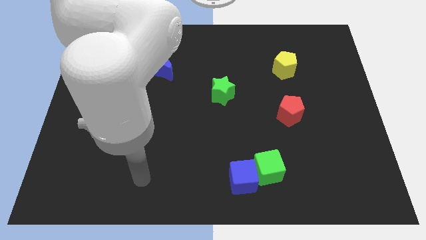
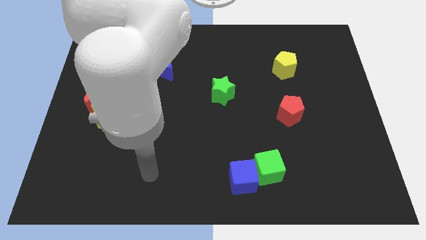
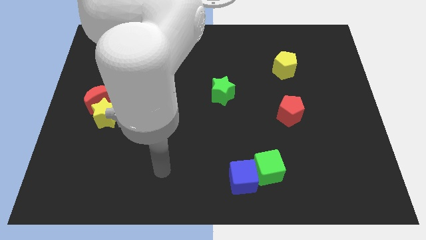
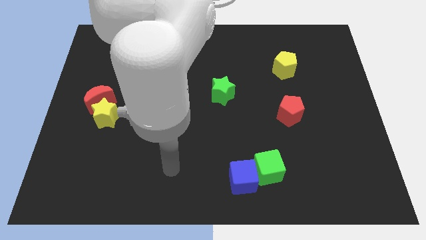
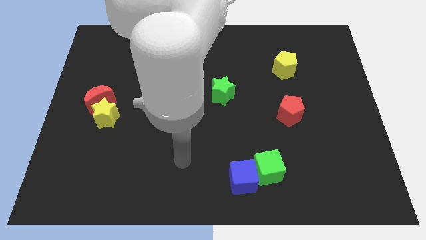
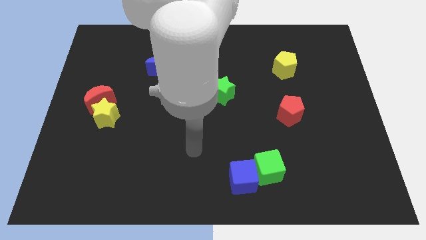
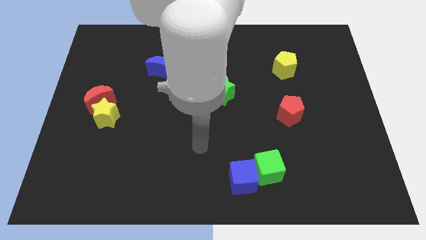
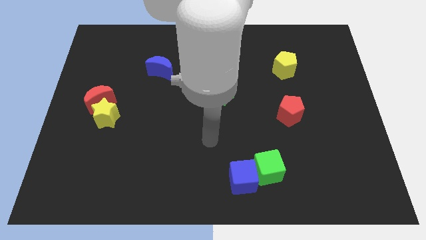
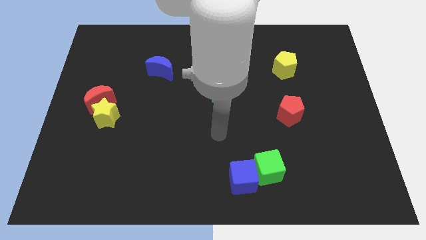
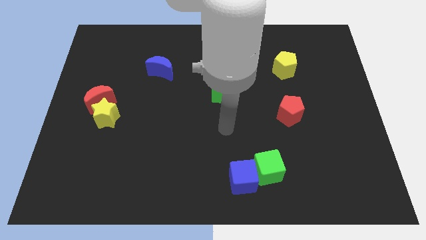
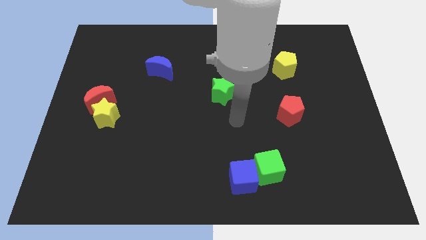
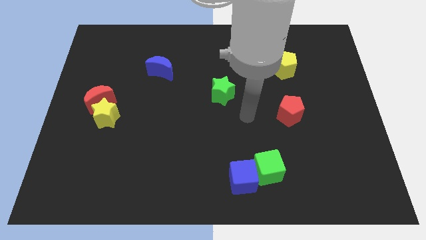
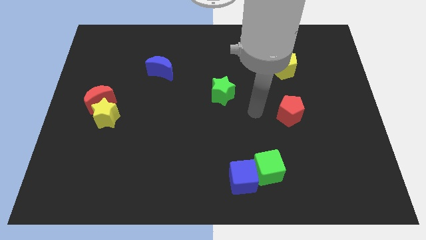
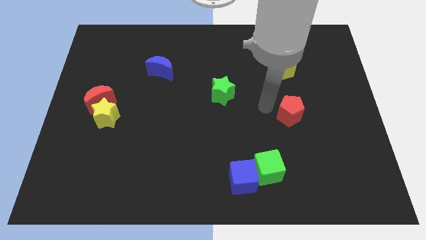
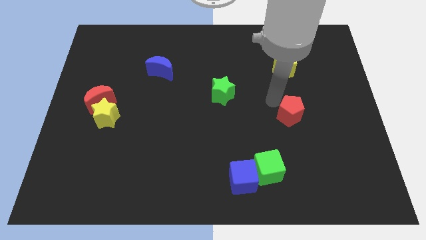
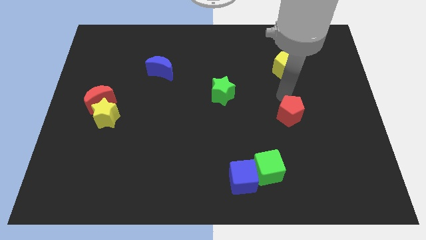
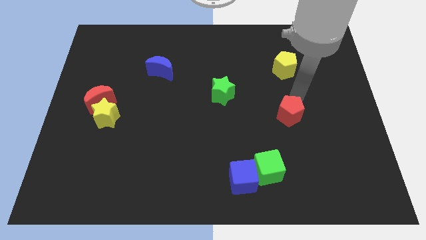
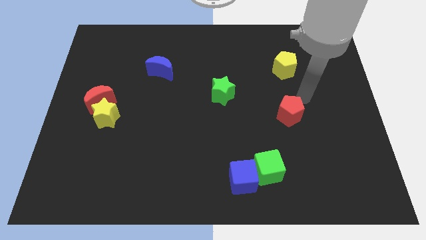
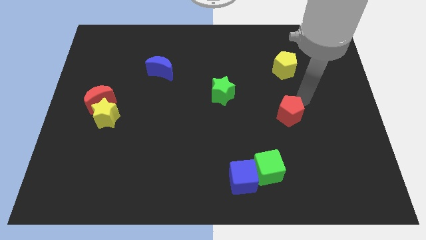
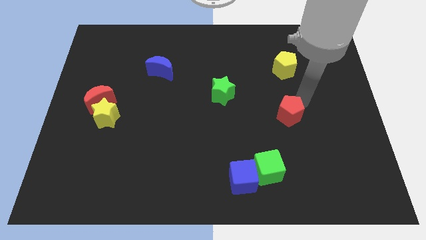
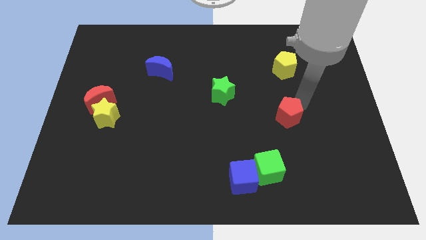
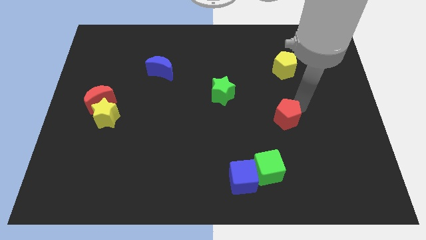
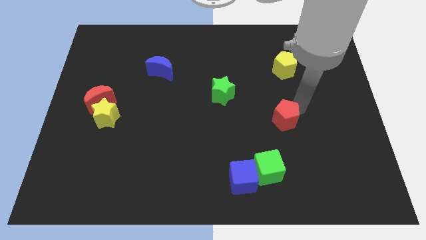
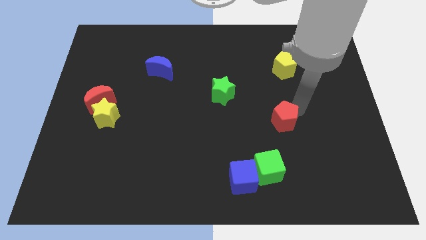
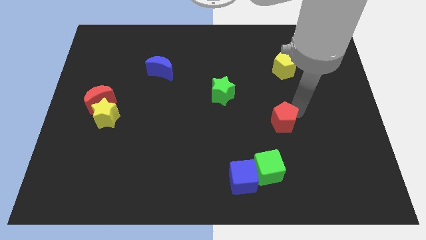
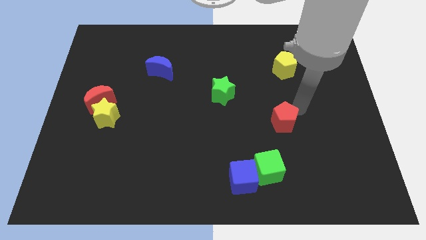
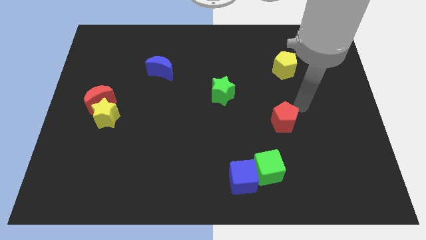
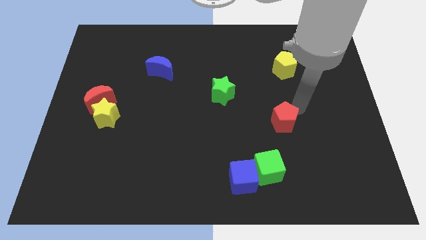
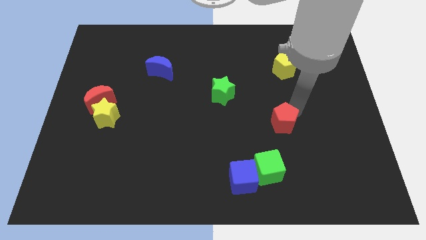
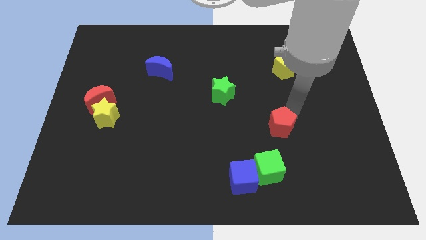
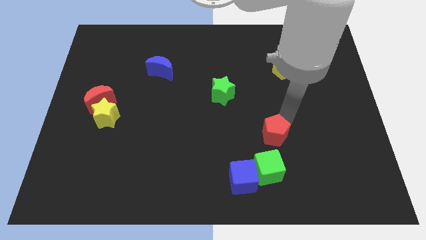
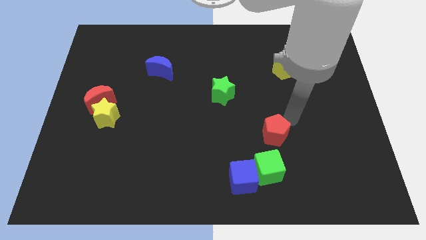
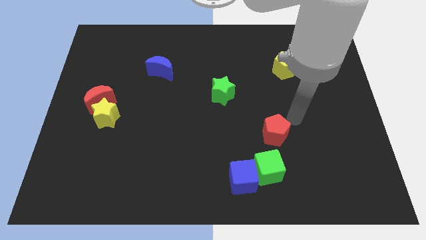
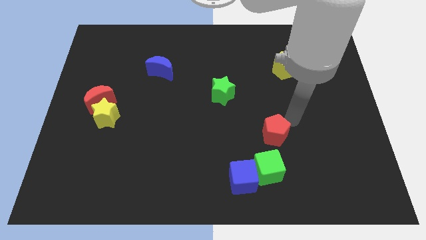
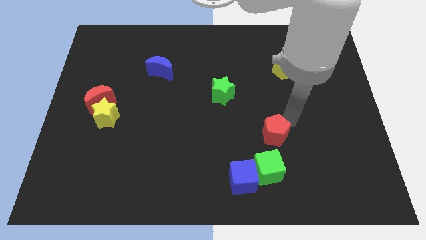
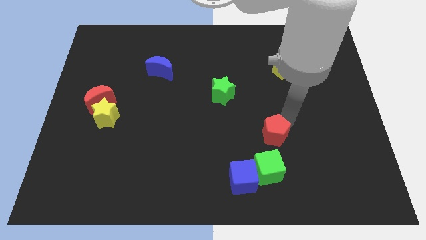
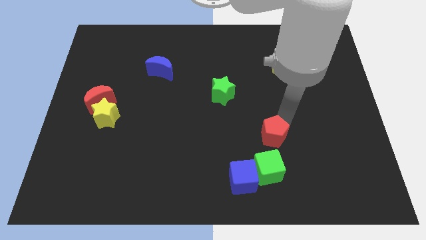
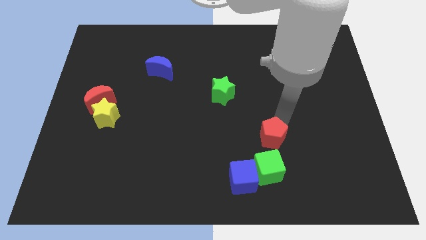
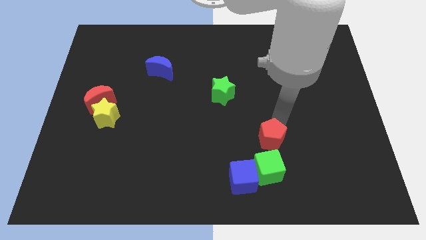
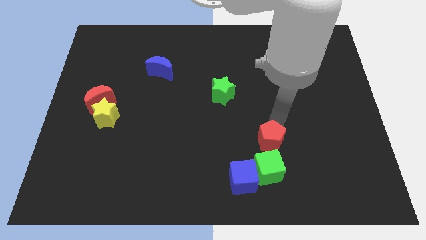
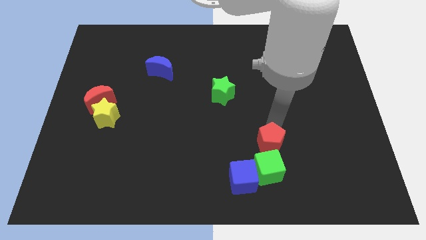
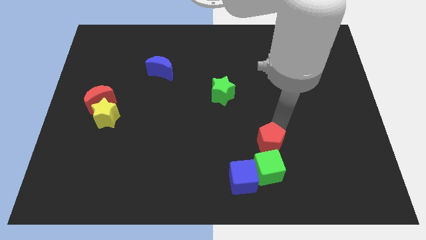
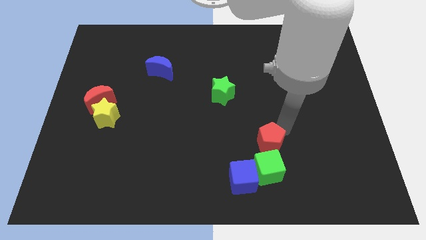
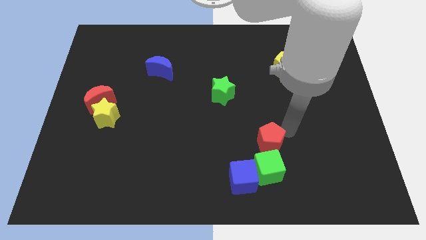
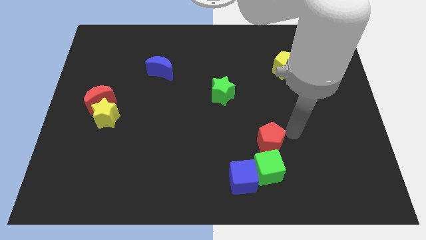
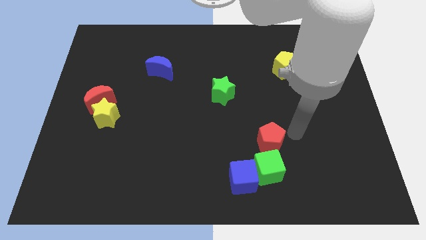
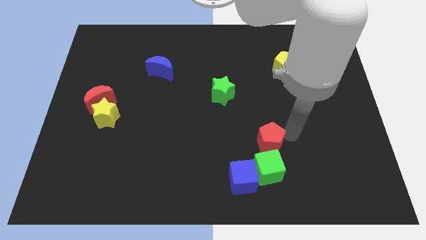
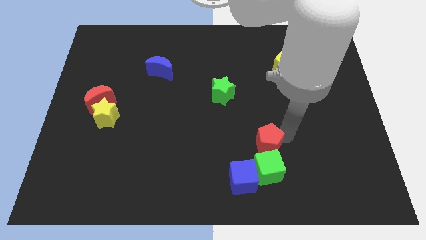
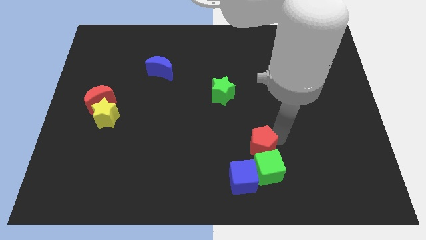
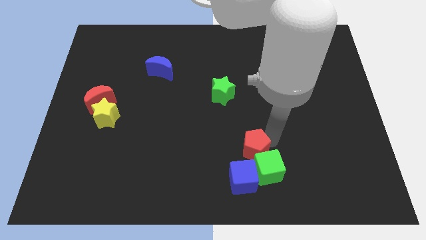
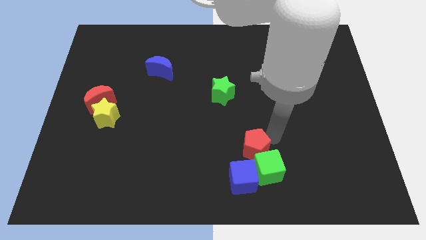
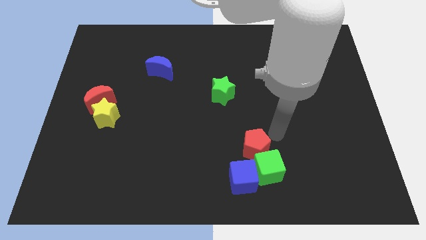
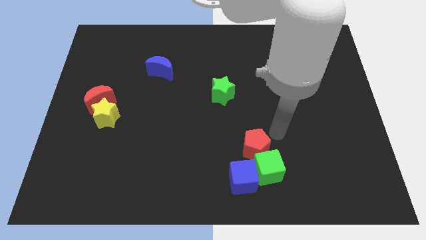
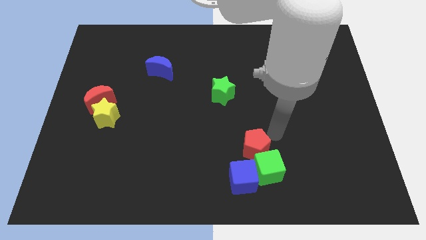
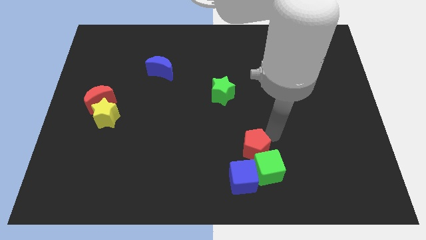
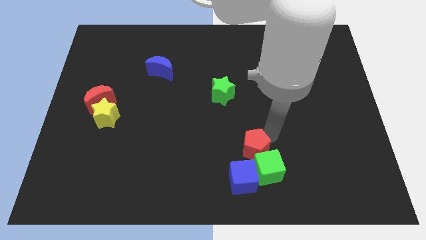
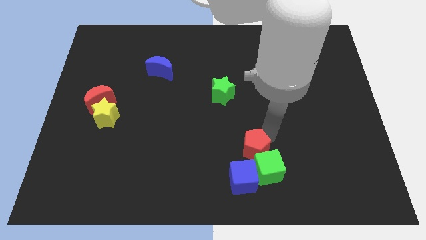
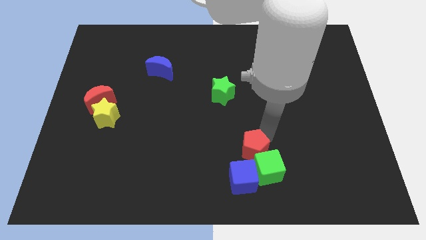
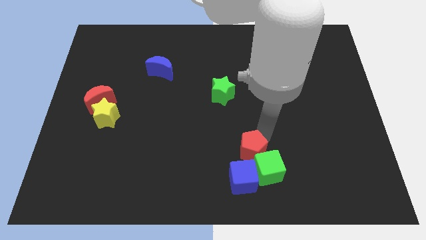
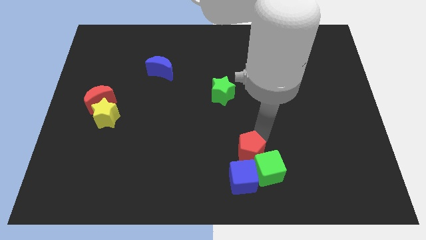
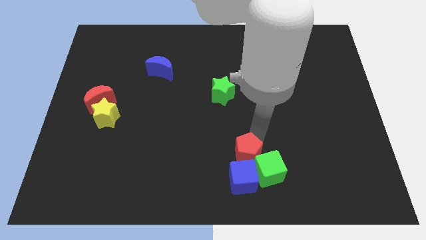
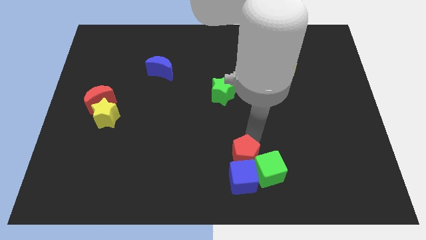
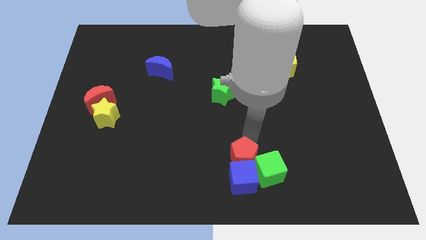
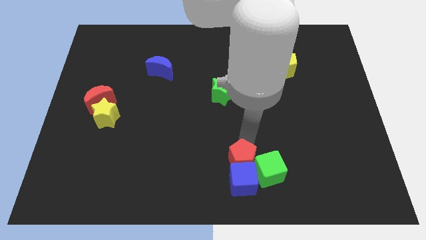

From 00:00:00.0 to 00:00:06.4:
put the red pentagon to the bottom

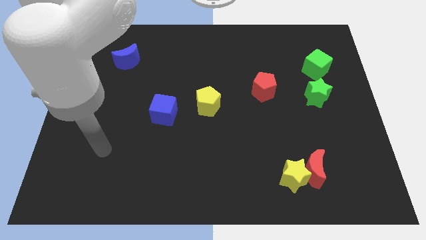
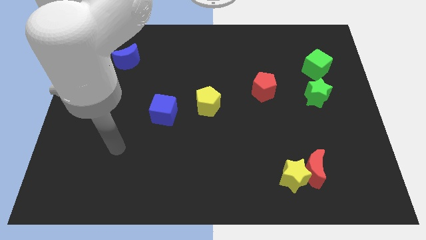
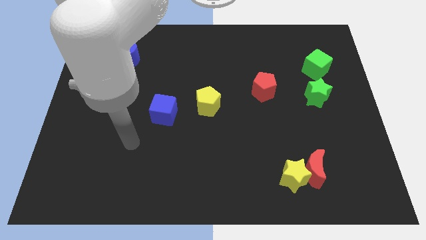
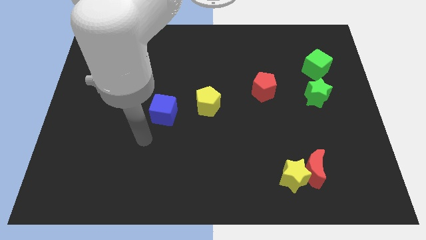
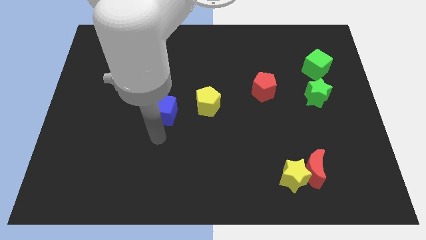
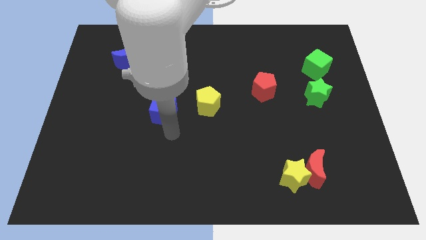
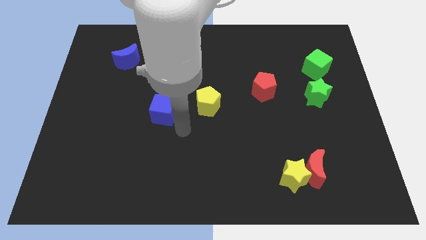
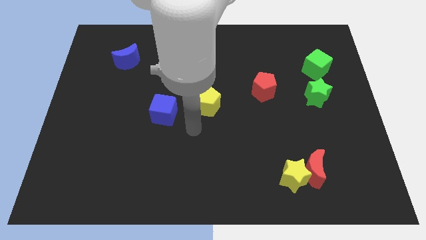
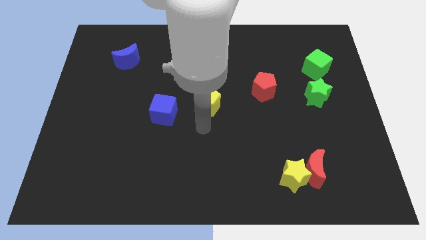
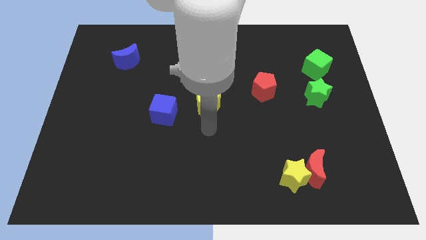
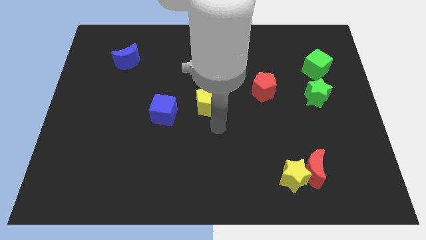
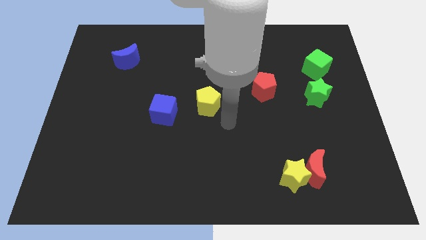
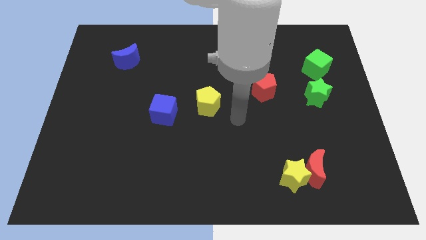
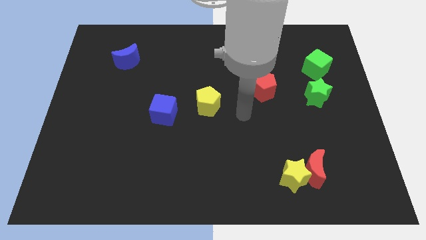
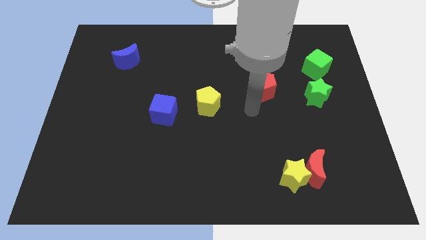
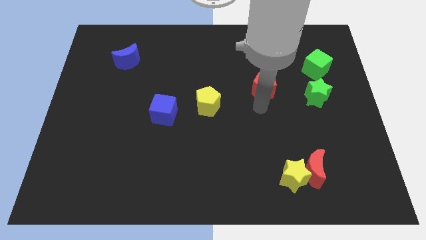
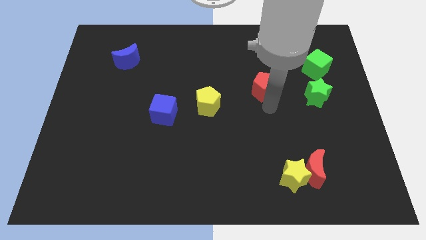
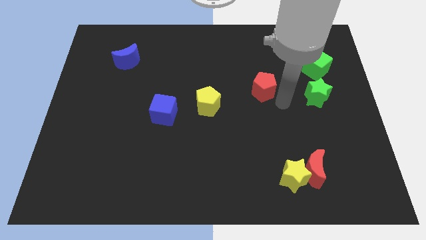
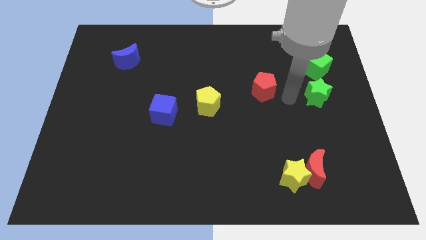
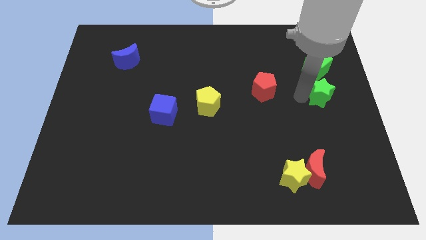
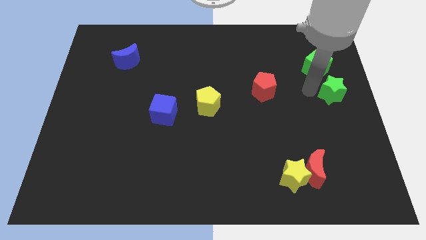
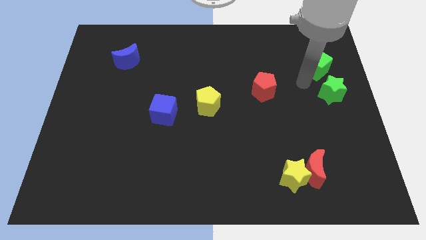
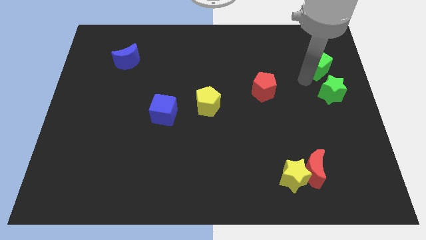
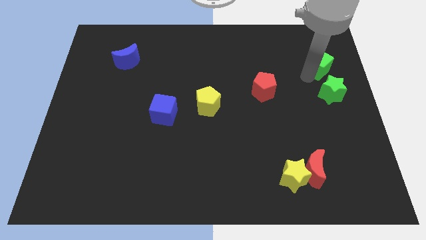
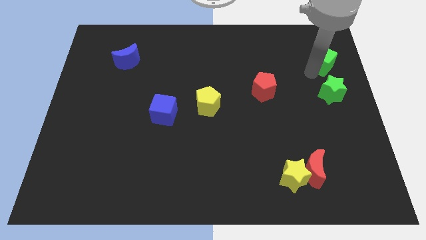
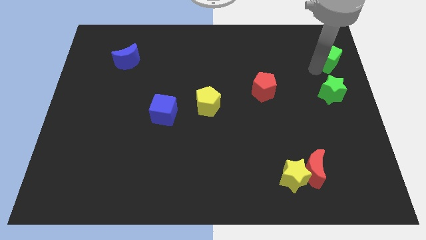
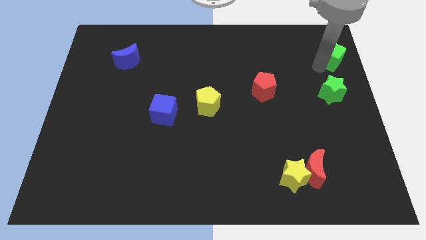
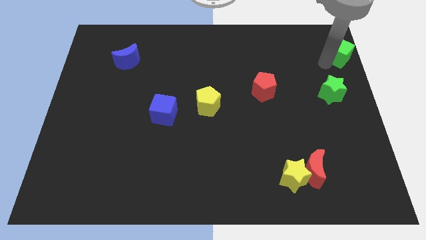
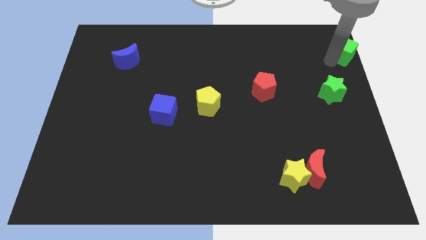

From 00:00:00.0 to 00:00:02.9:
push the green cube to the top right corner
